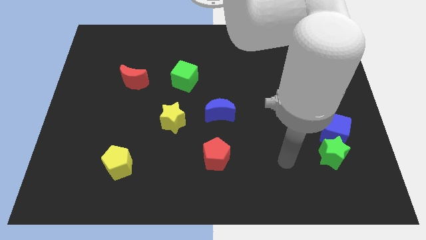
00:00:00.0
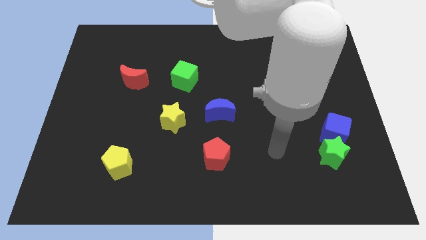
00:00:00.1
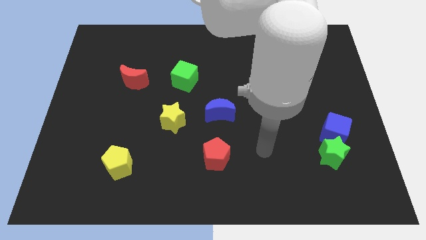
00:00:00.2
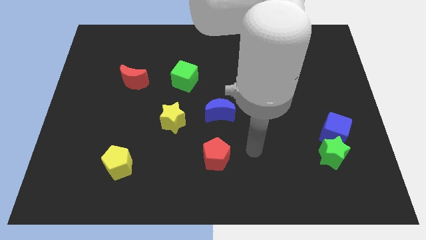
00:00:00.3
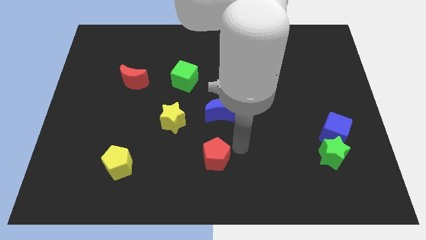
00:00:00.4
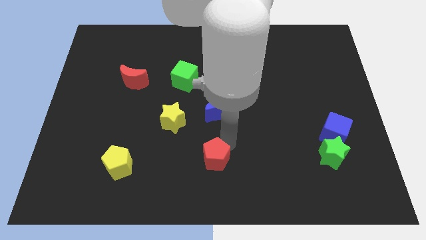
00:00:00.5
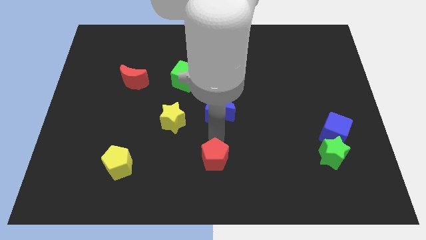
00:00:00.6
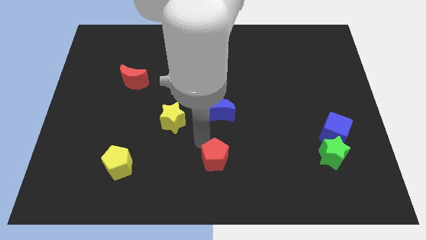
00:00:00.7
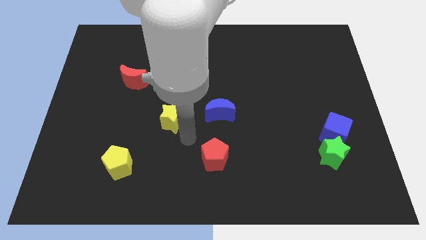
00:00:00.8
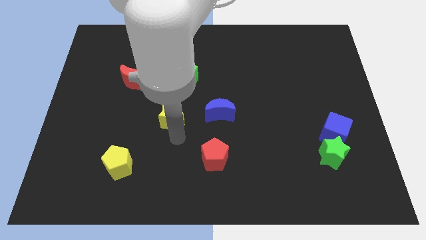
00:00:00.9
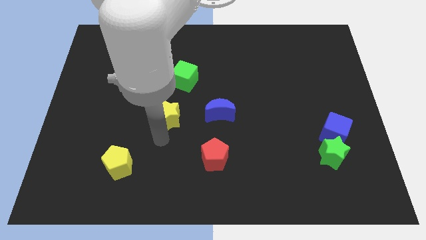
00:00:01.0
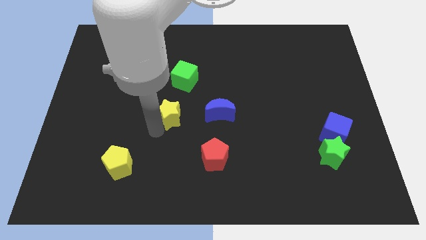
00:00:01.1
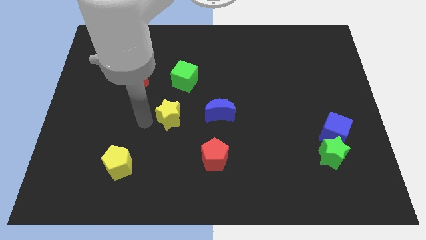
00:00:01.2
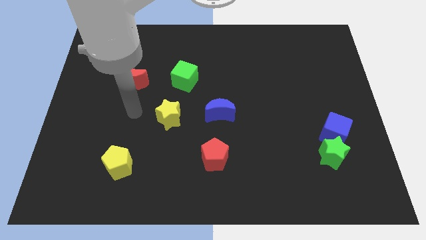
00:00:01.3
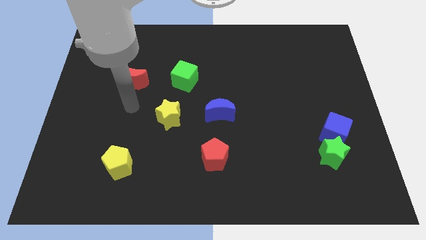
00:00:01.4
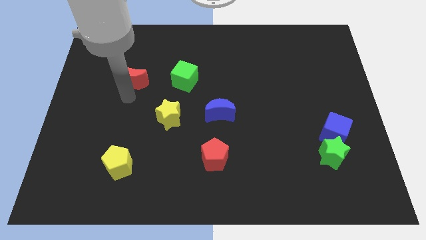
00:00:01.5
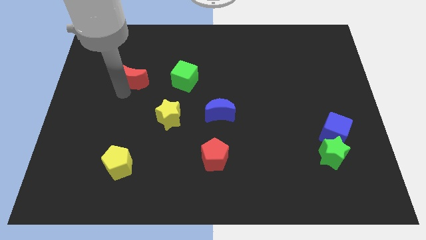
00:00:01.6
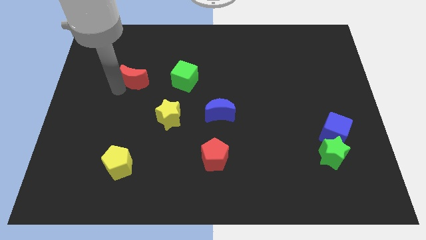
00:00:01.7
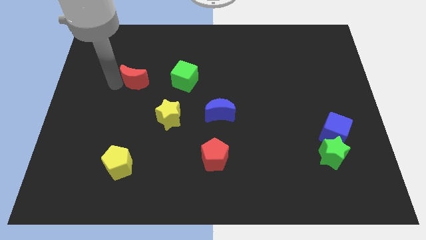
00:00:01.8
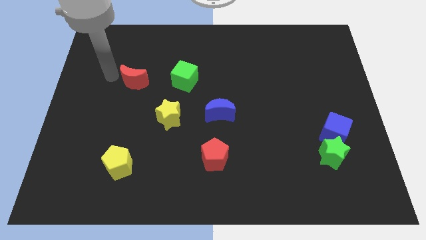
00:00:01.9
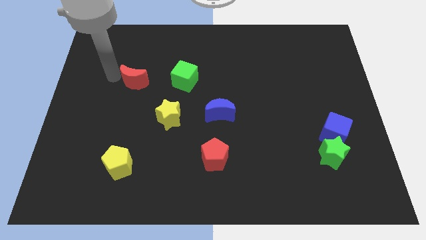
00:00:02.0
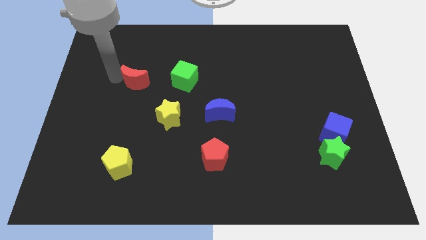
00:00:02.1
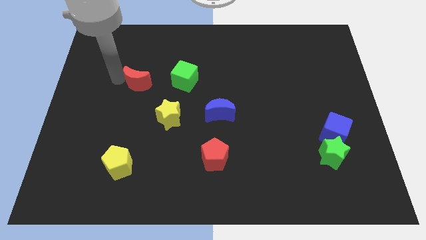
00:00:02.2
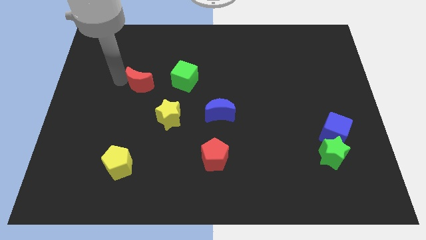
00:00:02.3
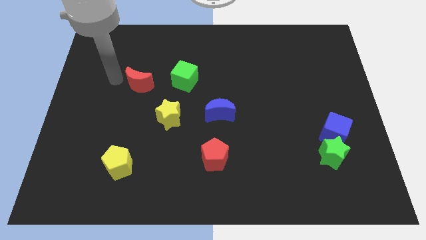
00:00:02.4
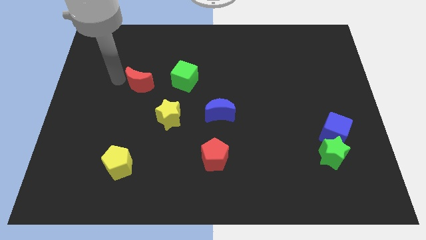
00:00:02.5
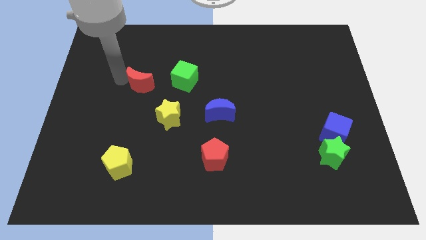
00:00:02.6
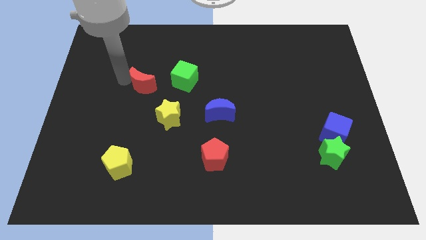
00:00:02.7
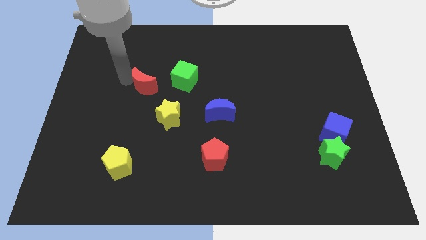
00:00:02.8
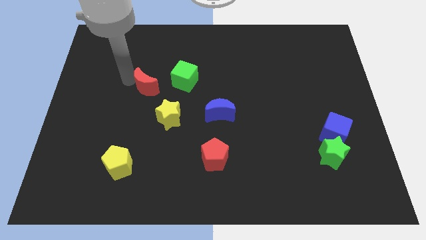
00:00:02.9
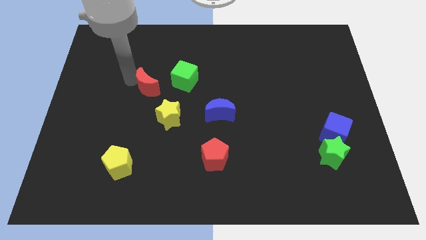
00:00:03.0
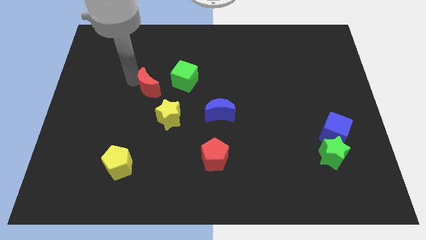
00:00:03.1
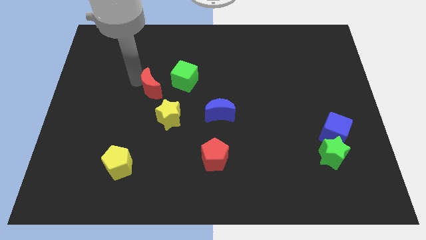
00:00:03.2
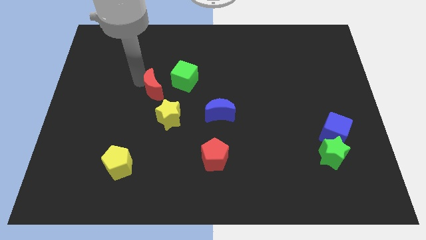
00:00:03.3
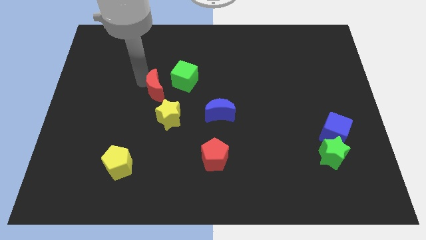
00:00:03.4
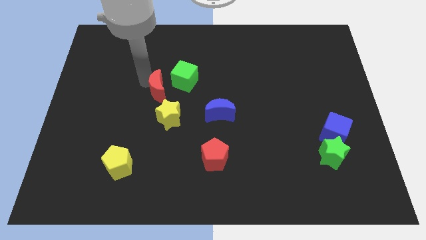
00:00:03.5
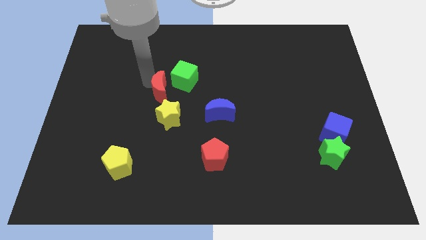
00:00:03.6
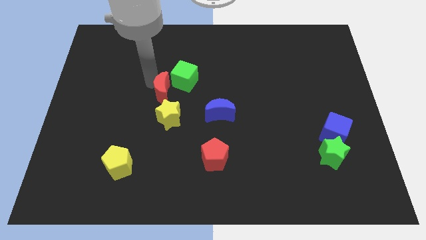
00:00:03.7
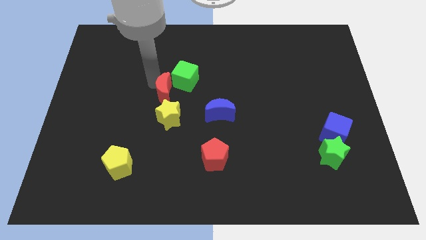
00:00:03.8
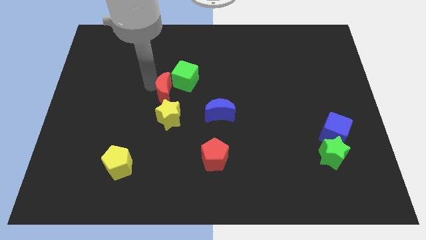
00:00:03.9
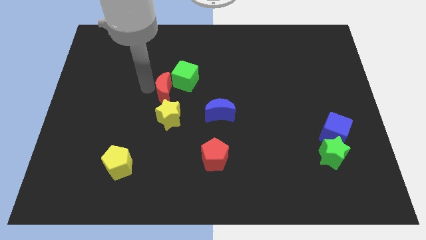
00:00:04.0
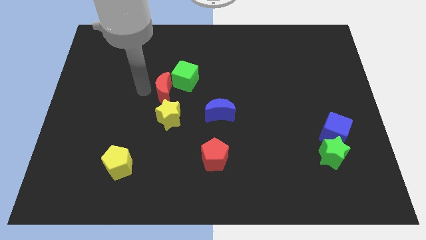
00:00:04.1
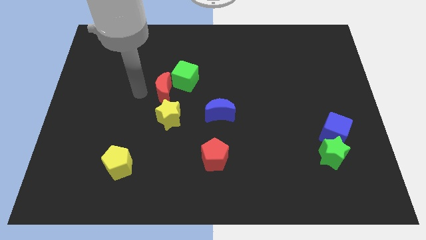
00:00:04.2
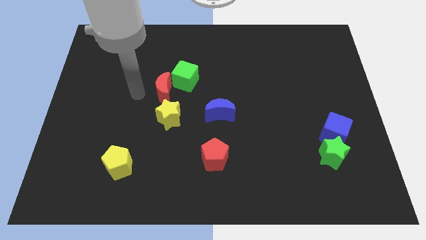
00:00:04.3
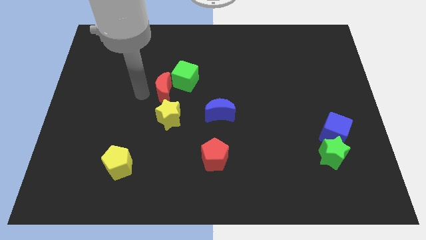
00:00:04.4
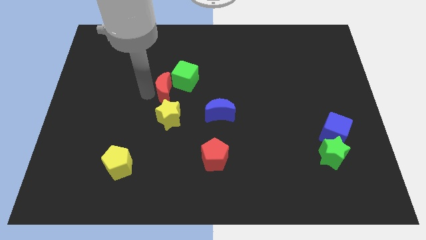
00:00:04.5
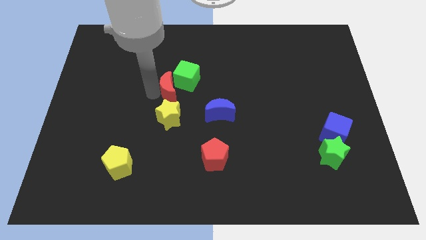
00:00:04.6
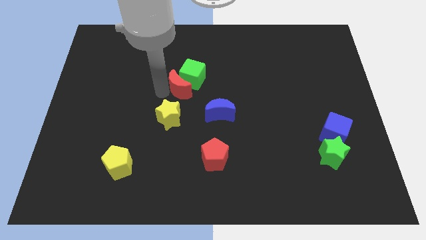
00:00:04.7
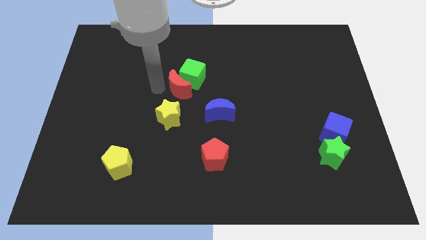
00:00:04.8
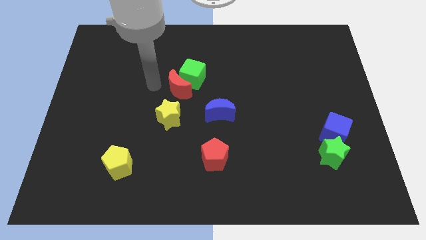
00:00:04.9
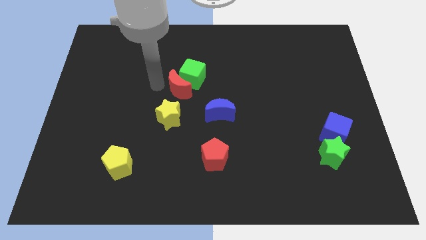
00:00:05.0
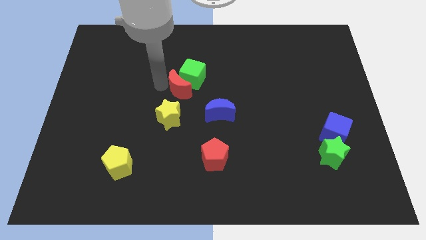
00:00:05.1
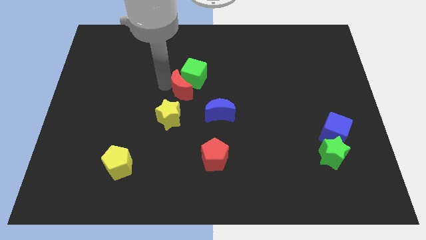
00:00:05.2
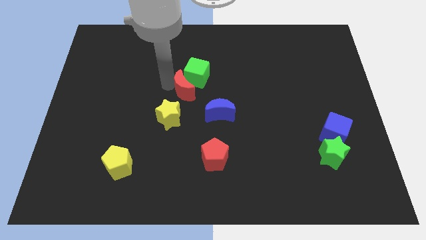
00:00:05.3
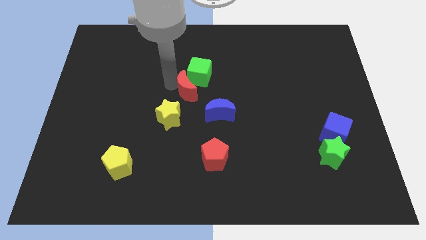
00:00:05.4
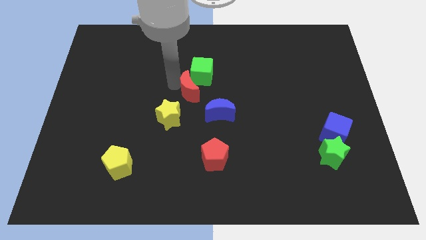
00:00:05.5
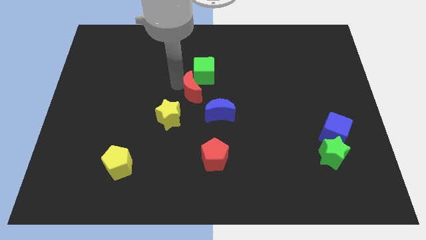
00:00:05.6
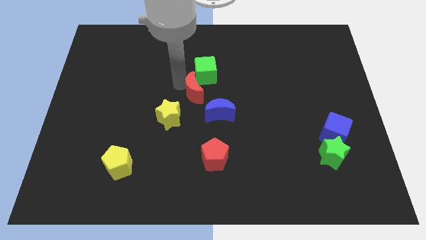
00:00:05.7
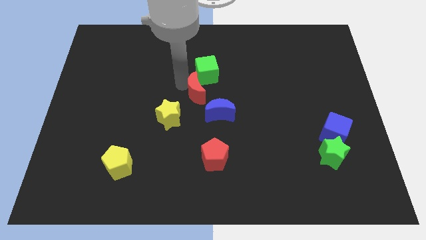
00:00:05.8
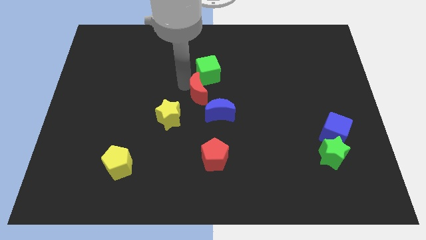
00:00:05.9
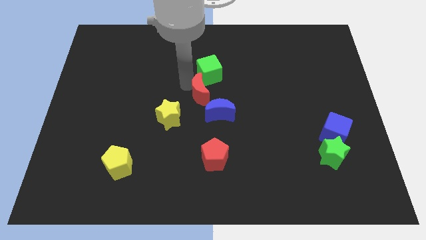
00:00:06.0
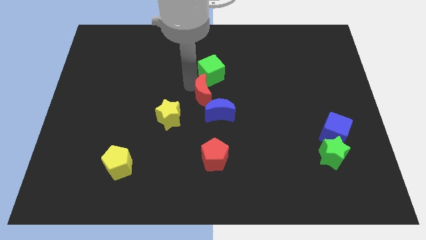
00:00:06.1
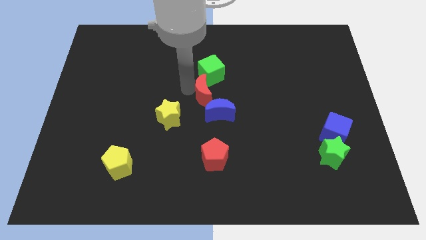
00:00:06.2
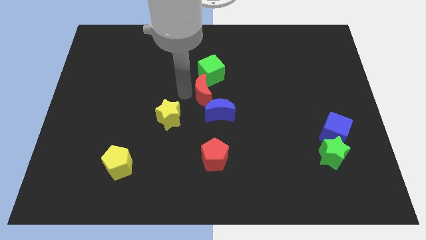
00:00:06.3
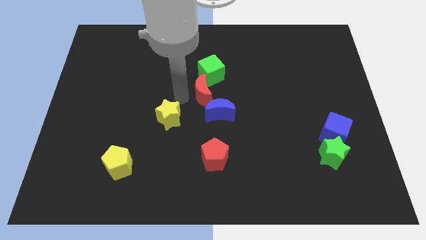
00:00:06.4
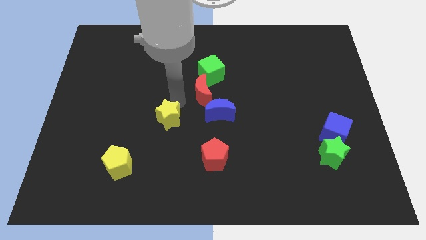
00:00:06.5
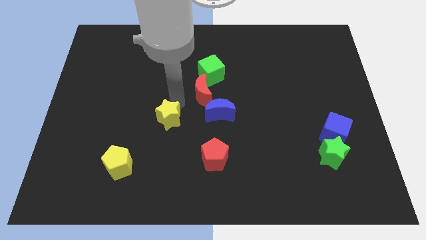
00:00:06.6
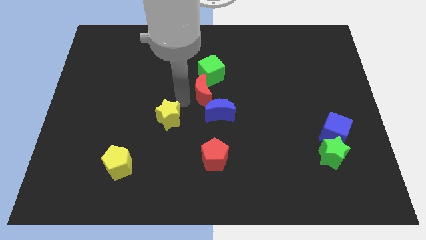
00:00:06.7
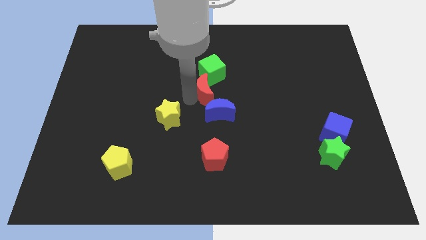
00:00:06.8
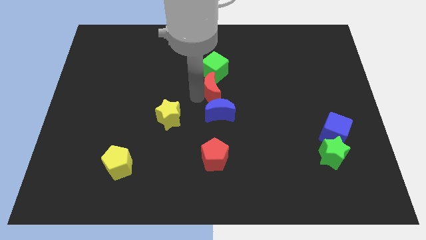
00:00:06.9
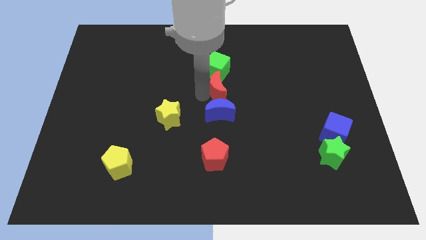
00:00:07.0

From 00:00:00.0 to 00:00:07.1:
push the red moon right

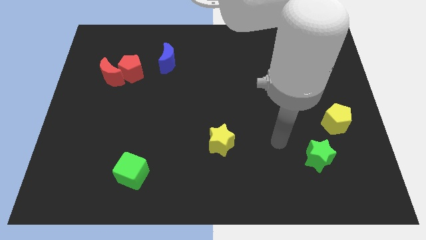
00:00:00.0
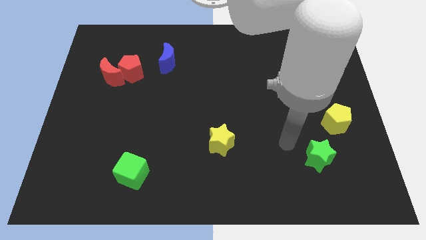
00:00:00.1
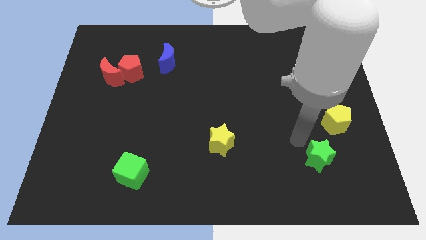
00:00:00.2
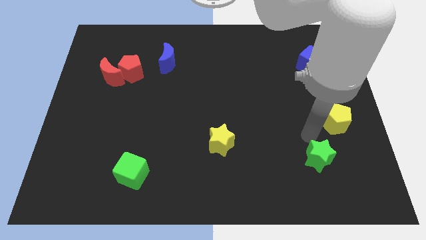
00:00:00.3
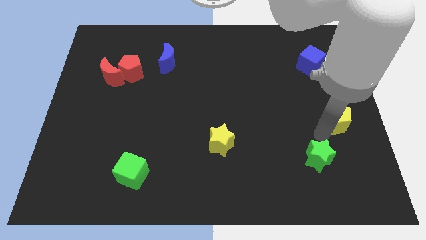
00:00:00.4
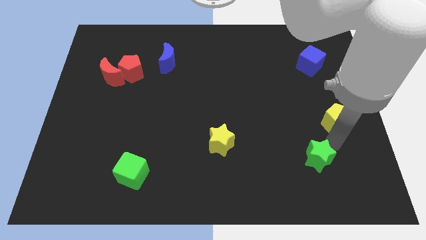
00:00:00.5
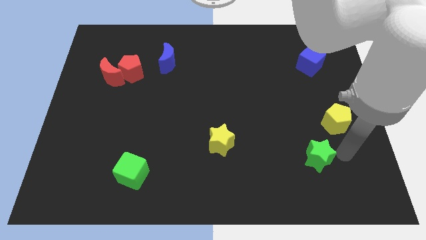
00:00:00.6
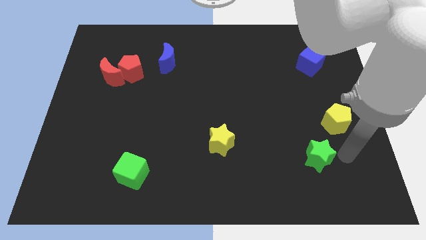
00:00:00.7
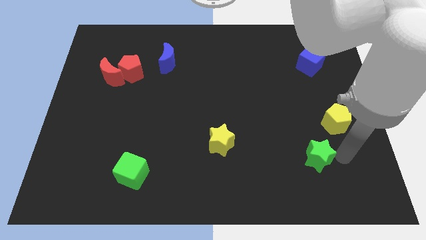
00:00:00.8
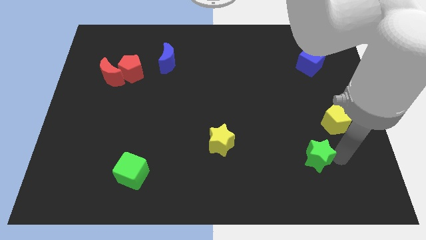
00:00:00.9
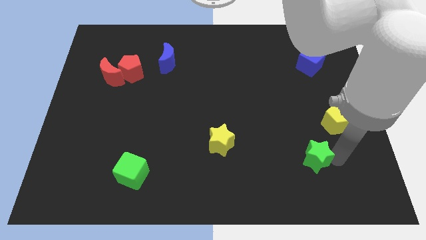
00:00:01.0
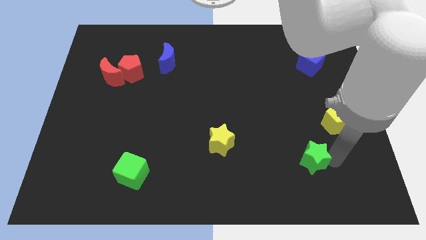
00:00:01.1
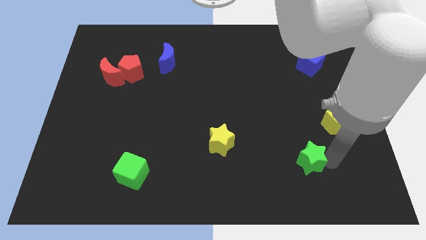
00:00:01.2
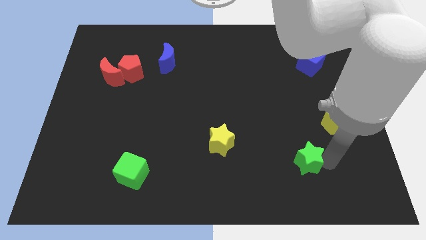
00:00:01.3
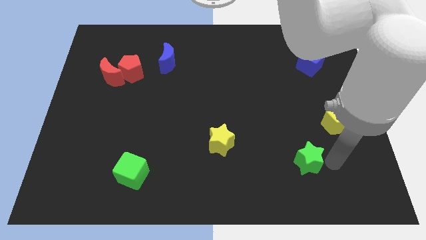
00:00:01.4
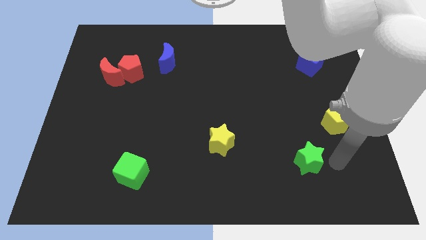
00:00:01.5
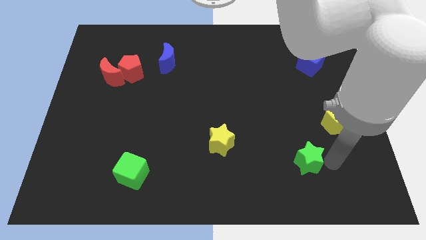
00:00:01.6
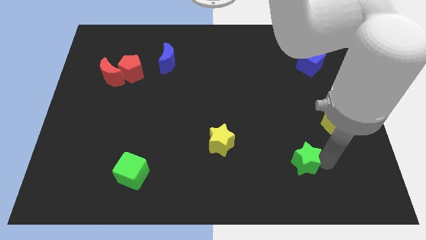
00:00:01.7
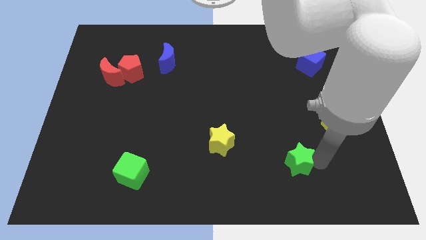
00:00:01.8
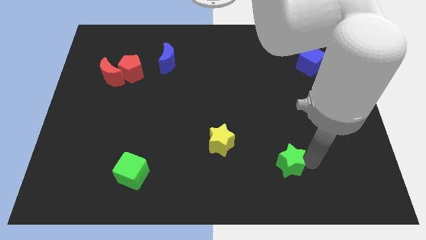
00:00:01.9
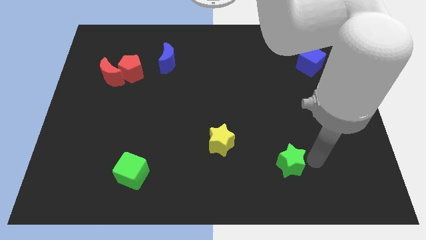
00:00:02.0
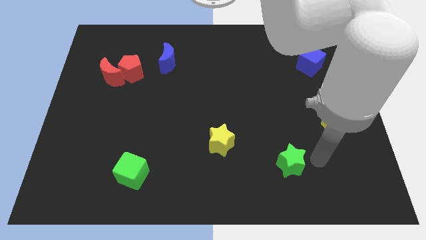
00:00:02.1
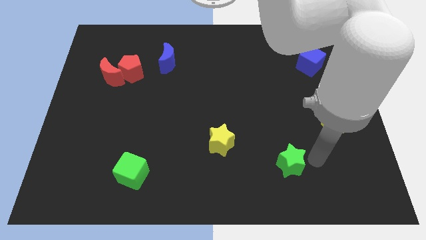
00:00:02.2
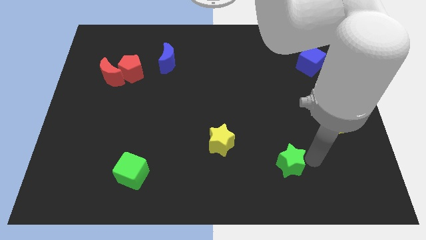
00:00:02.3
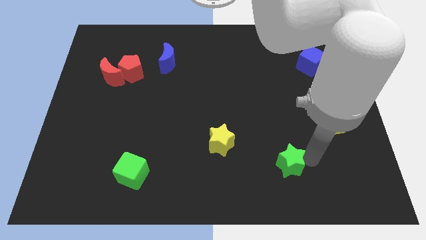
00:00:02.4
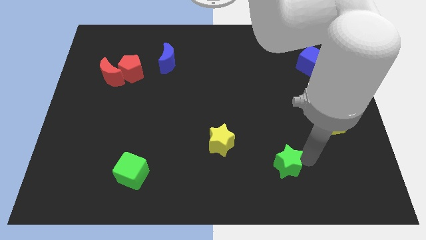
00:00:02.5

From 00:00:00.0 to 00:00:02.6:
slide the green star a little left
